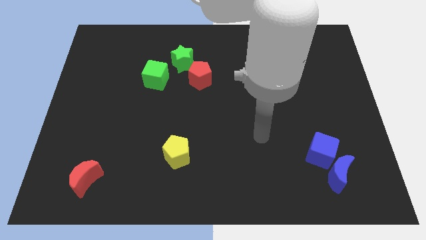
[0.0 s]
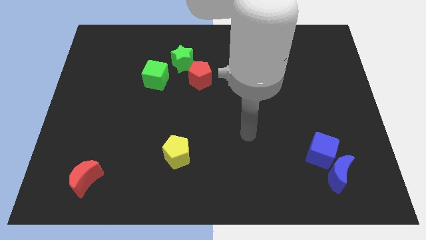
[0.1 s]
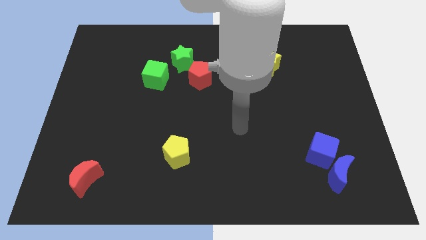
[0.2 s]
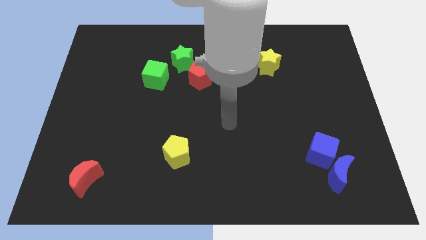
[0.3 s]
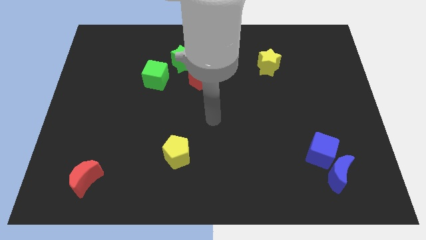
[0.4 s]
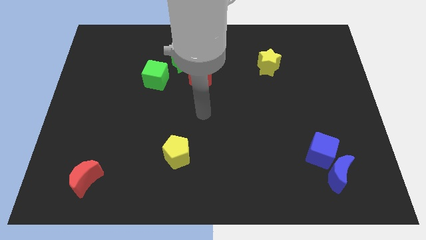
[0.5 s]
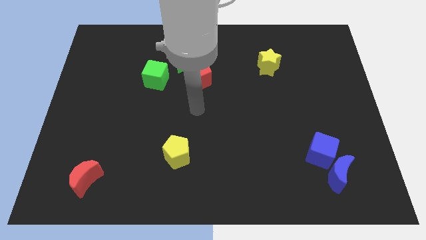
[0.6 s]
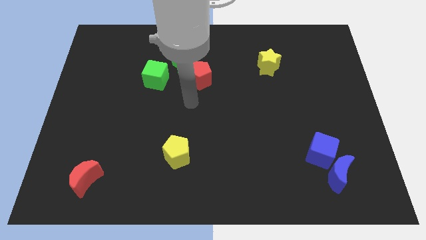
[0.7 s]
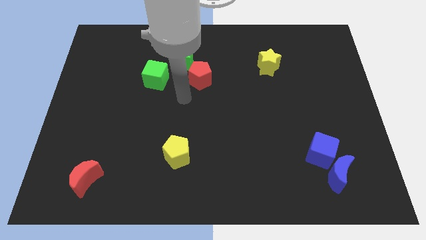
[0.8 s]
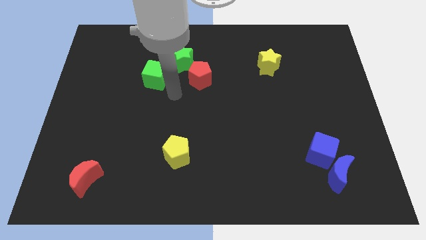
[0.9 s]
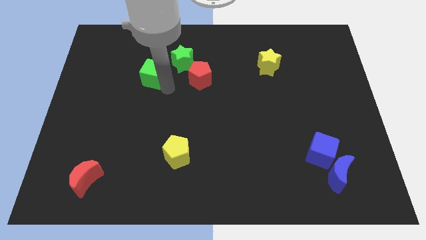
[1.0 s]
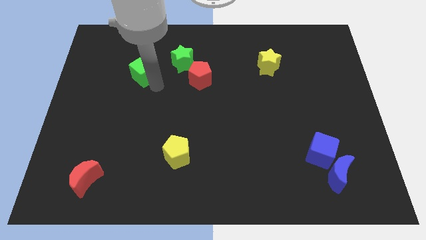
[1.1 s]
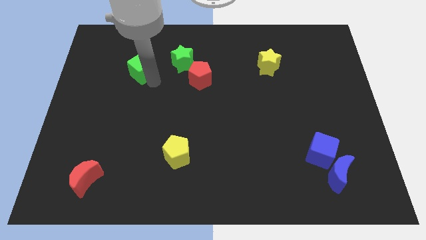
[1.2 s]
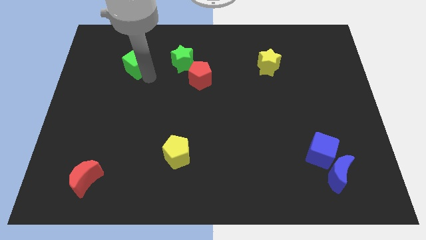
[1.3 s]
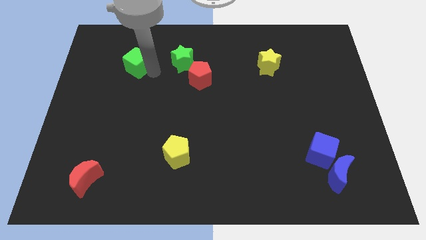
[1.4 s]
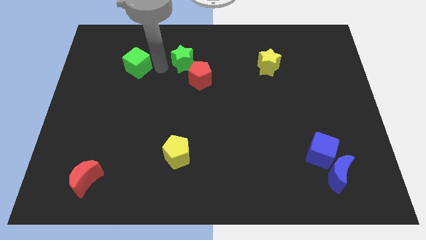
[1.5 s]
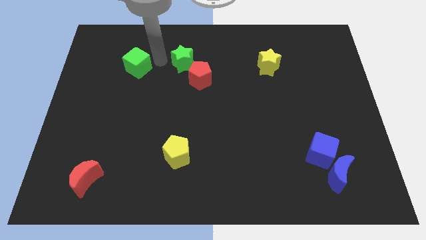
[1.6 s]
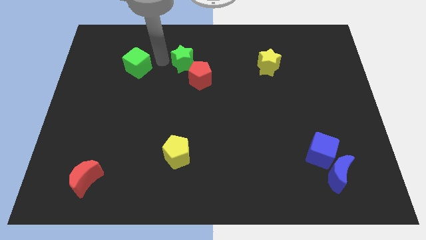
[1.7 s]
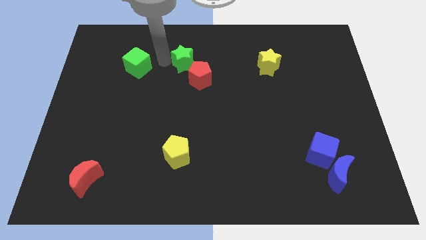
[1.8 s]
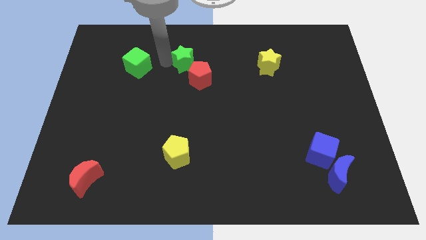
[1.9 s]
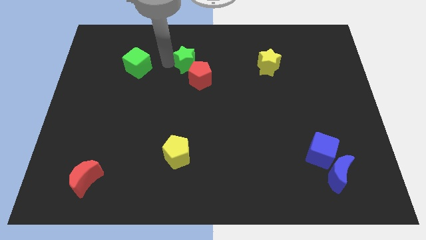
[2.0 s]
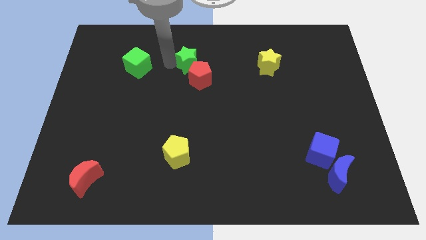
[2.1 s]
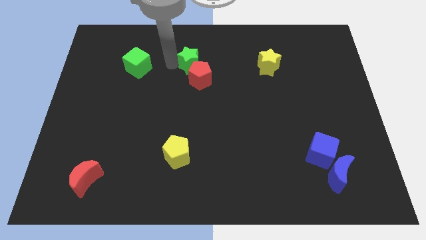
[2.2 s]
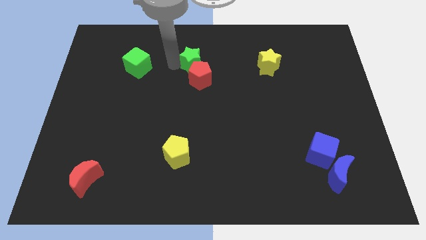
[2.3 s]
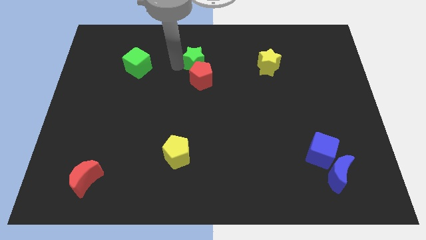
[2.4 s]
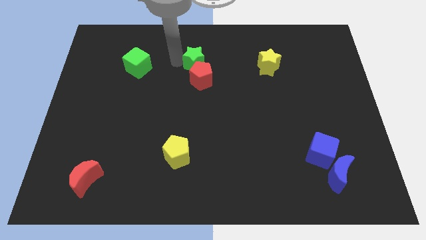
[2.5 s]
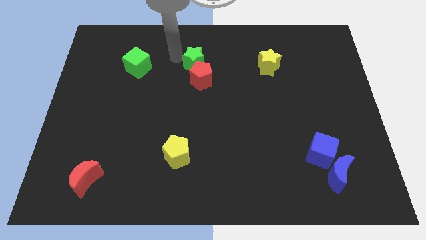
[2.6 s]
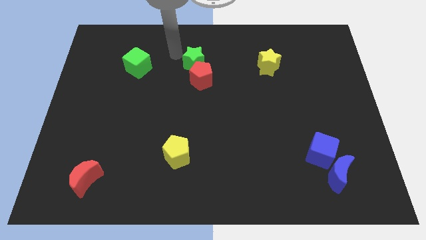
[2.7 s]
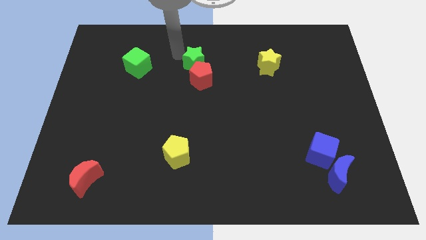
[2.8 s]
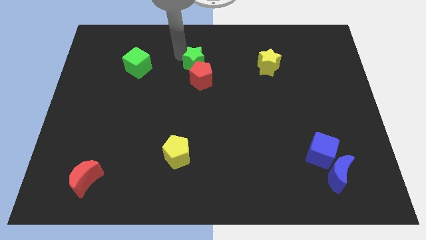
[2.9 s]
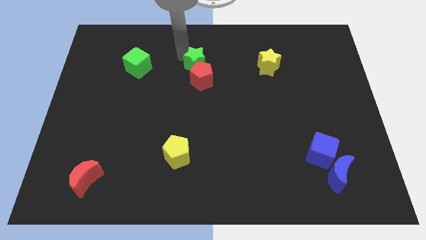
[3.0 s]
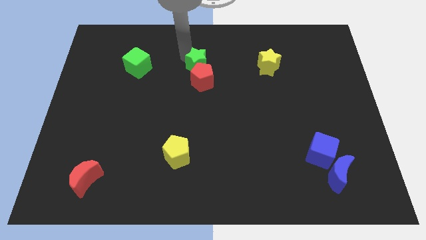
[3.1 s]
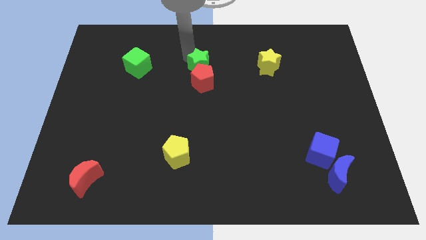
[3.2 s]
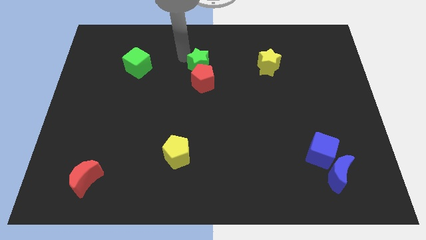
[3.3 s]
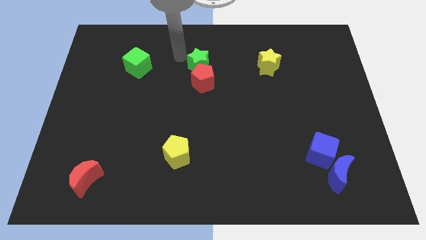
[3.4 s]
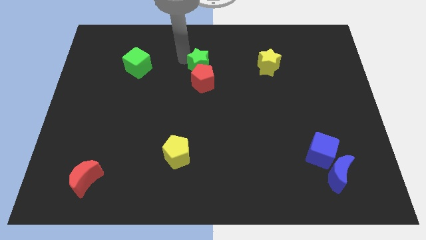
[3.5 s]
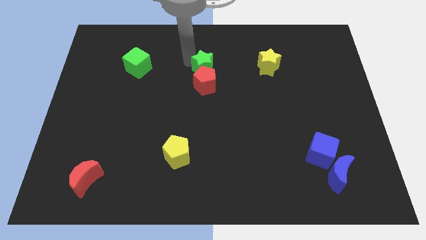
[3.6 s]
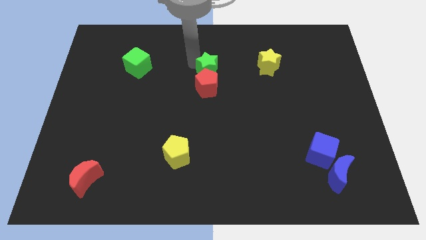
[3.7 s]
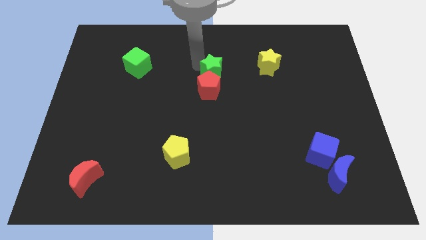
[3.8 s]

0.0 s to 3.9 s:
slide the green star a bit down and to the right

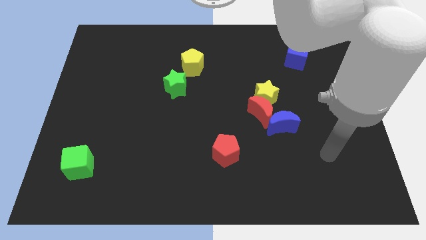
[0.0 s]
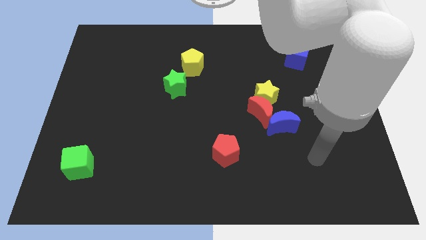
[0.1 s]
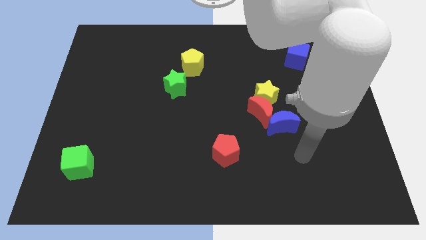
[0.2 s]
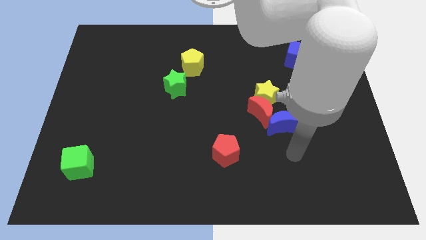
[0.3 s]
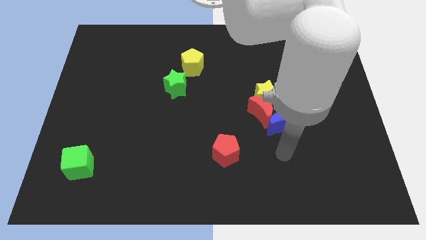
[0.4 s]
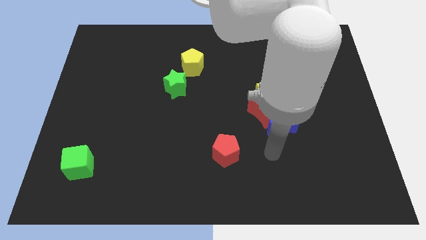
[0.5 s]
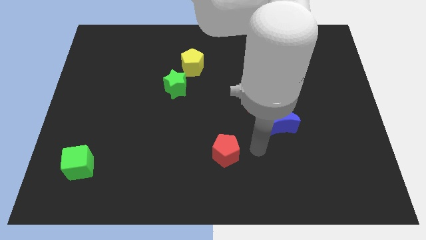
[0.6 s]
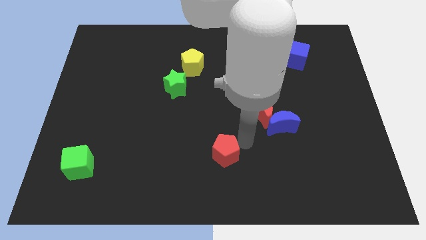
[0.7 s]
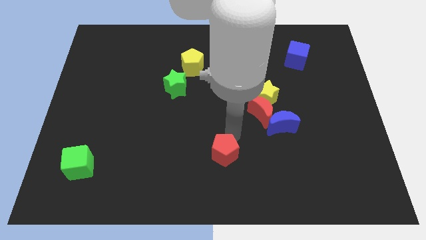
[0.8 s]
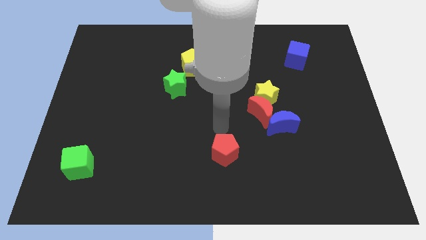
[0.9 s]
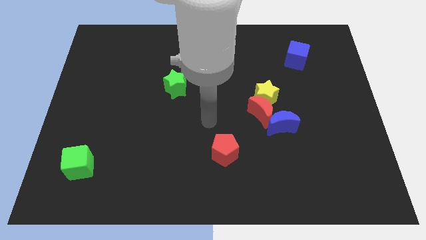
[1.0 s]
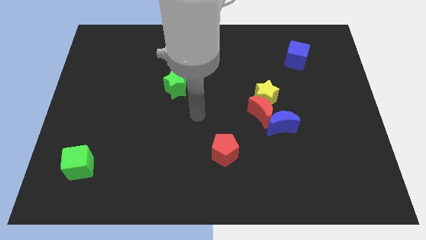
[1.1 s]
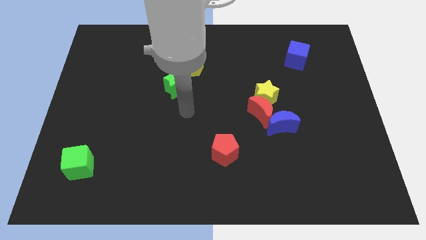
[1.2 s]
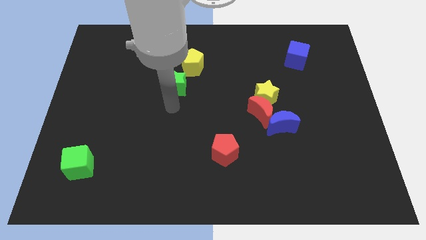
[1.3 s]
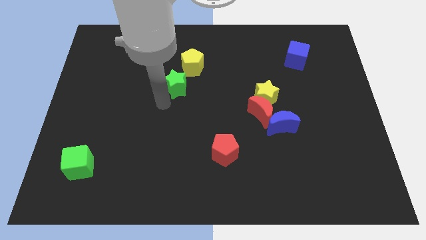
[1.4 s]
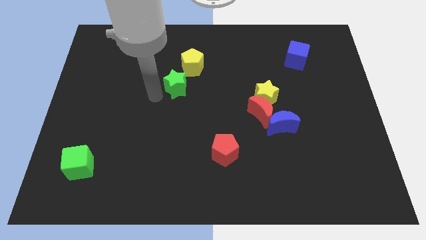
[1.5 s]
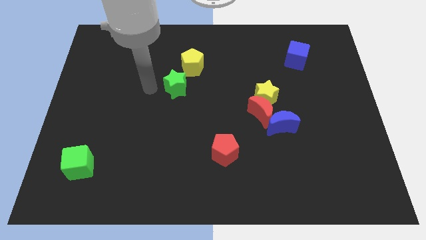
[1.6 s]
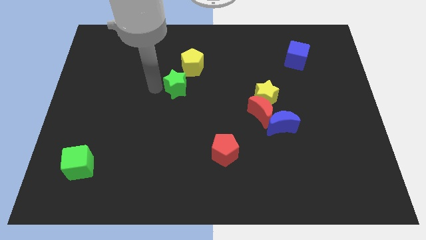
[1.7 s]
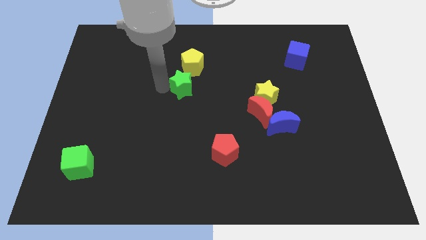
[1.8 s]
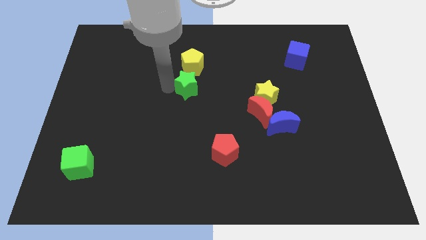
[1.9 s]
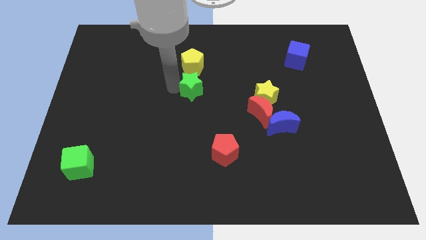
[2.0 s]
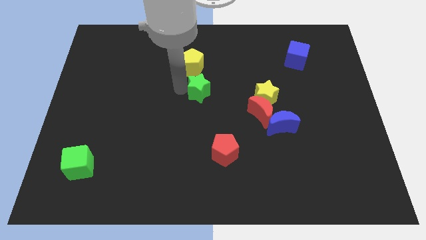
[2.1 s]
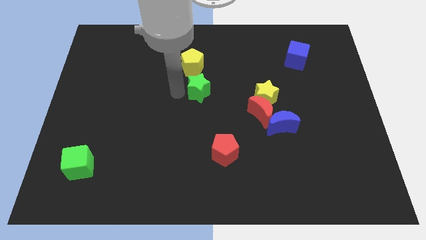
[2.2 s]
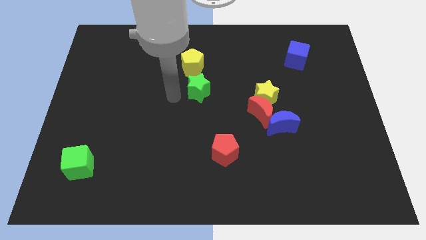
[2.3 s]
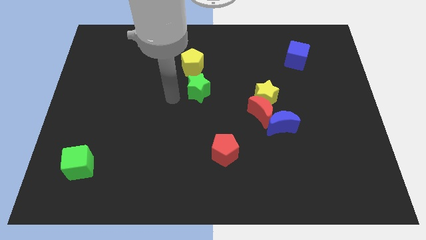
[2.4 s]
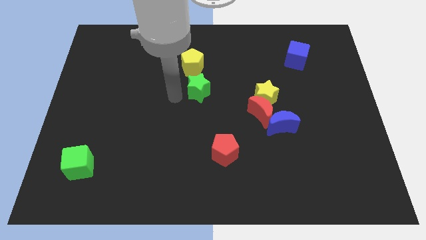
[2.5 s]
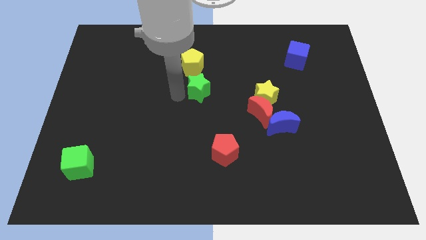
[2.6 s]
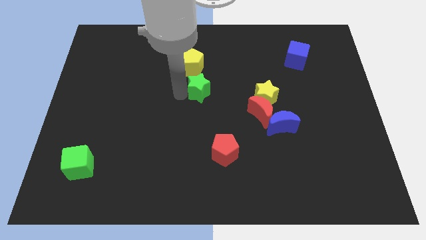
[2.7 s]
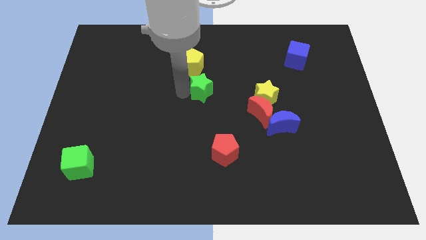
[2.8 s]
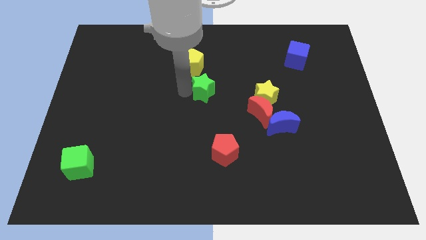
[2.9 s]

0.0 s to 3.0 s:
slide the green star slightly to the right

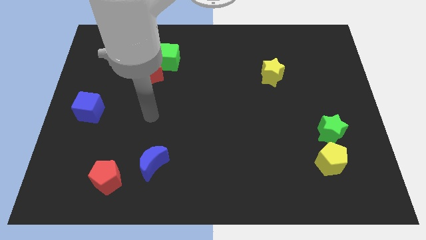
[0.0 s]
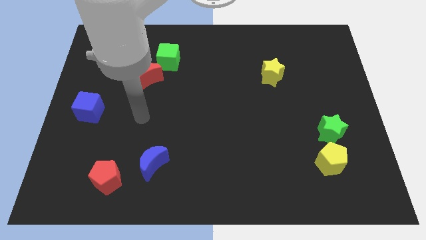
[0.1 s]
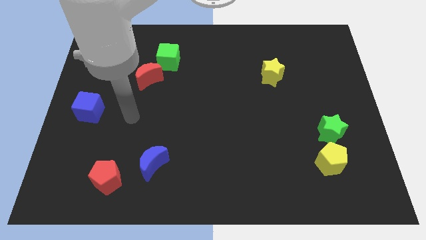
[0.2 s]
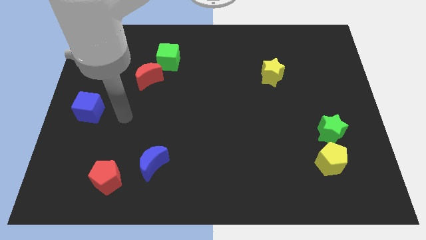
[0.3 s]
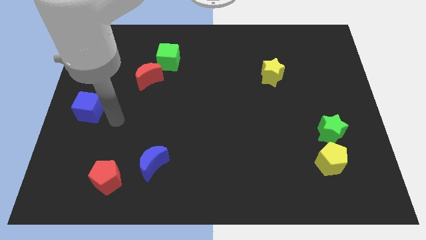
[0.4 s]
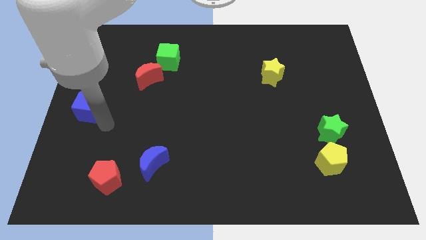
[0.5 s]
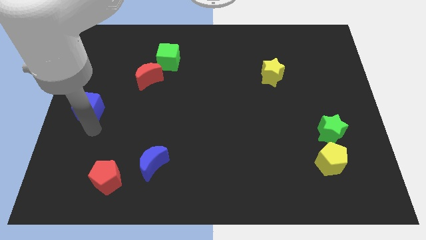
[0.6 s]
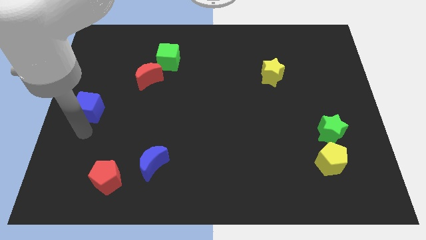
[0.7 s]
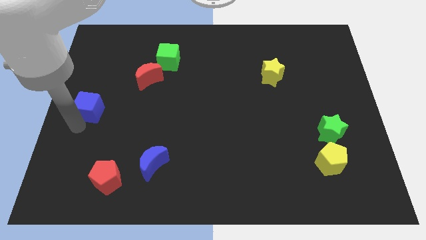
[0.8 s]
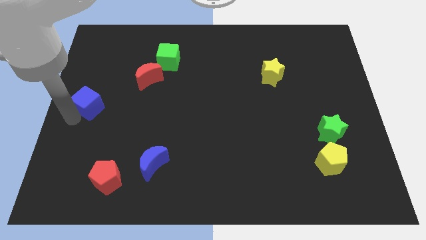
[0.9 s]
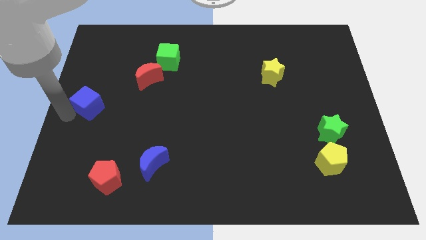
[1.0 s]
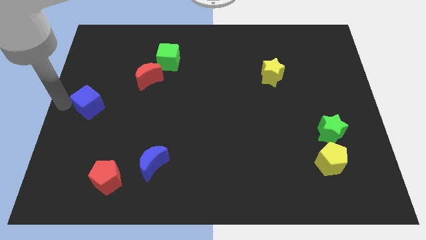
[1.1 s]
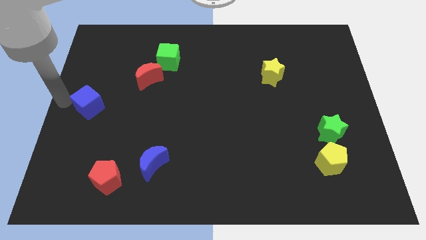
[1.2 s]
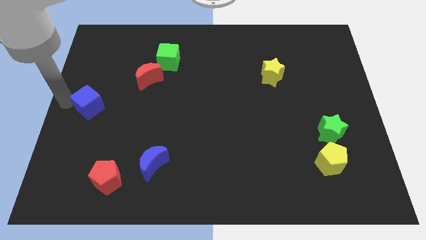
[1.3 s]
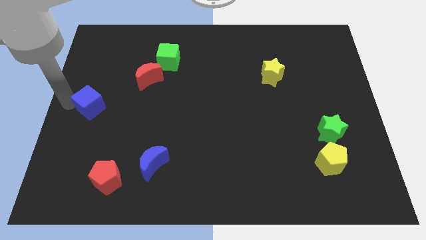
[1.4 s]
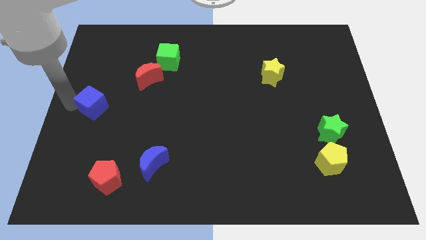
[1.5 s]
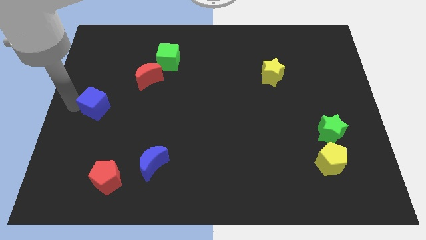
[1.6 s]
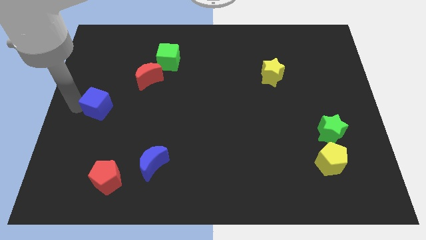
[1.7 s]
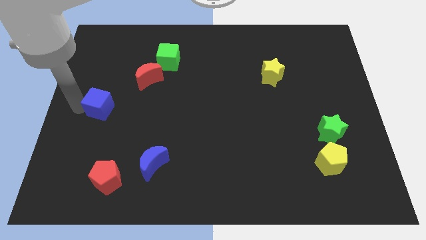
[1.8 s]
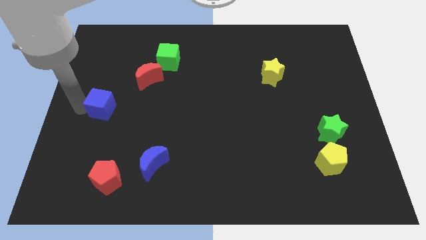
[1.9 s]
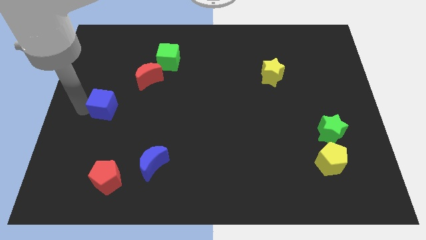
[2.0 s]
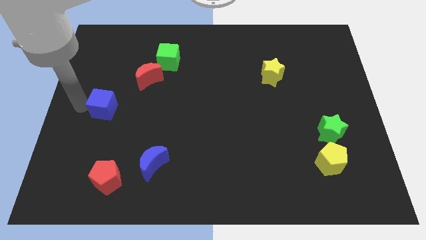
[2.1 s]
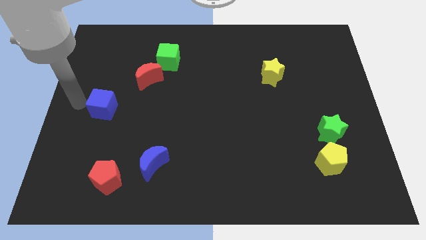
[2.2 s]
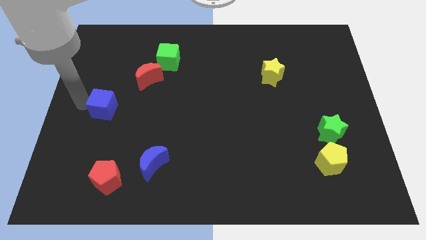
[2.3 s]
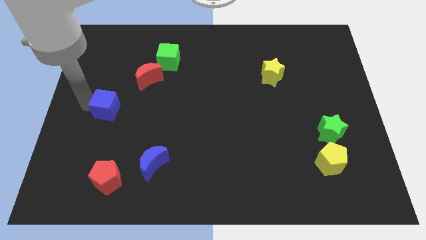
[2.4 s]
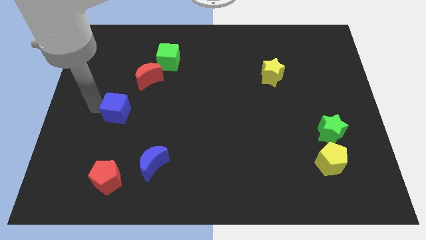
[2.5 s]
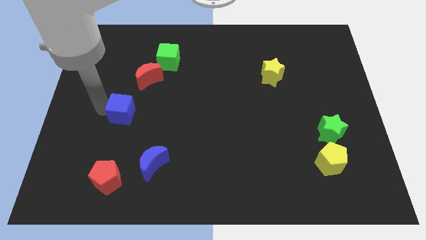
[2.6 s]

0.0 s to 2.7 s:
slightly move the blue cube right
